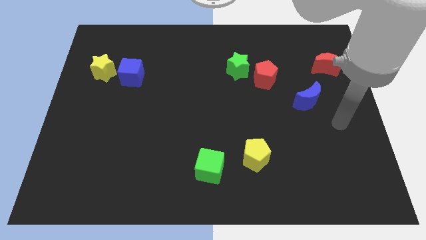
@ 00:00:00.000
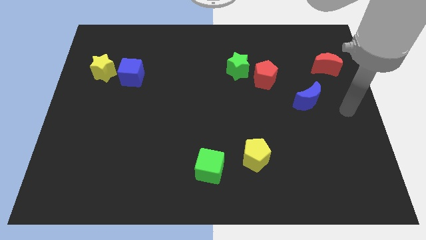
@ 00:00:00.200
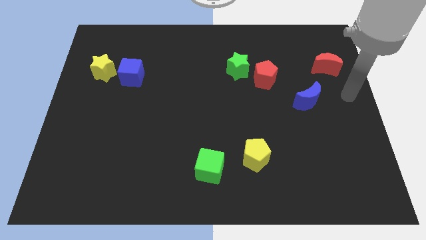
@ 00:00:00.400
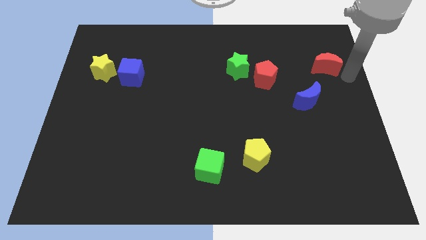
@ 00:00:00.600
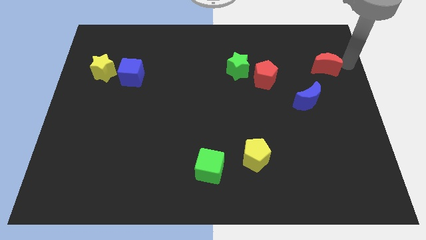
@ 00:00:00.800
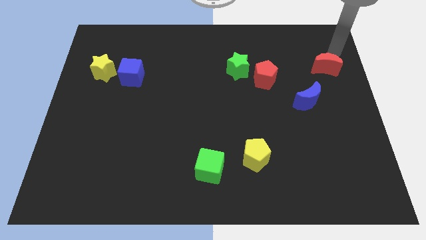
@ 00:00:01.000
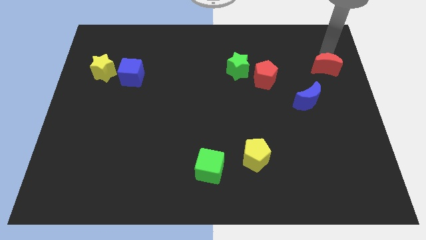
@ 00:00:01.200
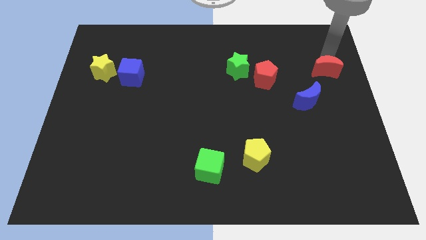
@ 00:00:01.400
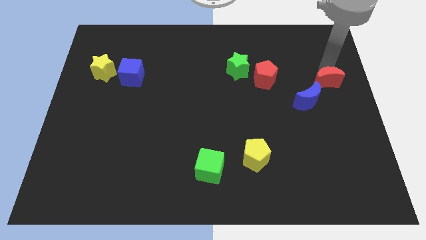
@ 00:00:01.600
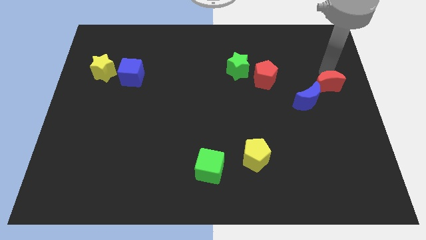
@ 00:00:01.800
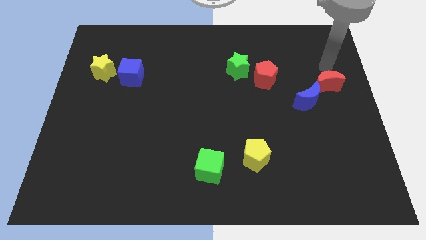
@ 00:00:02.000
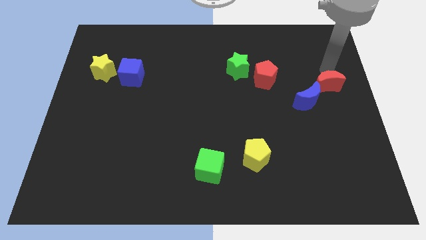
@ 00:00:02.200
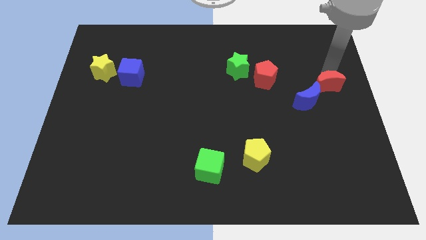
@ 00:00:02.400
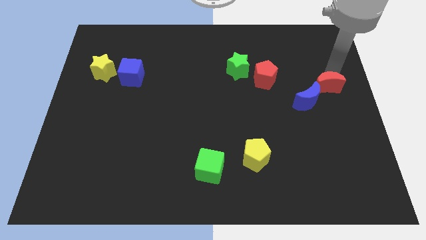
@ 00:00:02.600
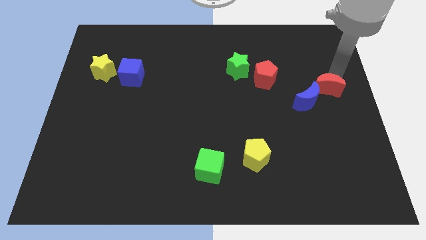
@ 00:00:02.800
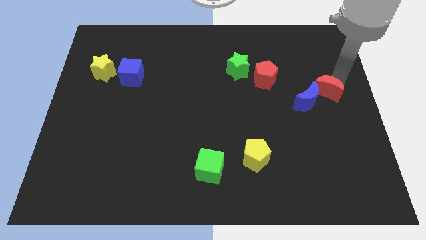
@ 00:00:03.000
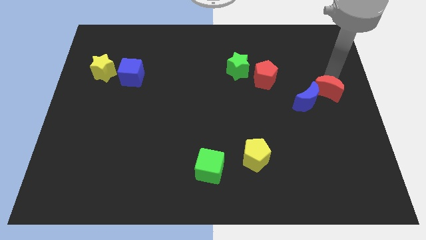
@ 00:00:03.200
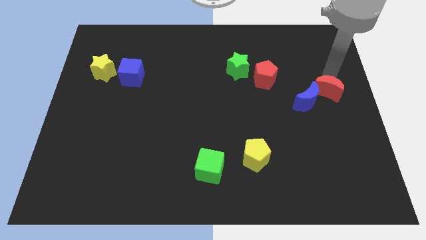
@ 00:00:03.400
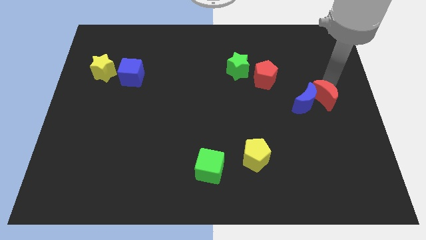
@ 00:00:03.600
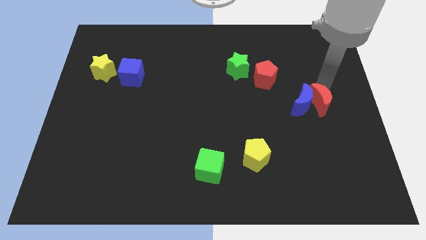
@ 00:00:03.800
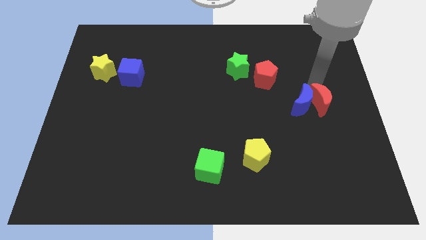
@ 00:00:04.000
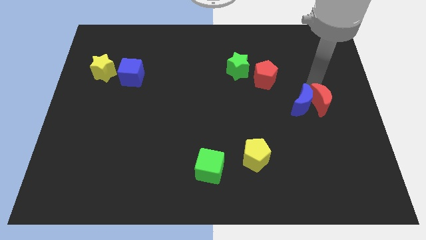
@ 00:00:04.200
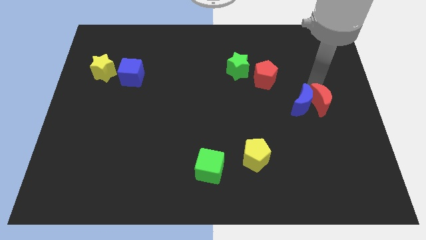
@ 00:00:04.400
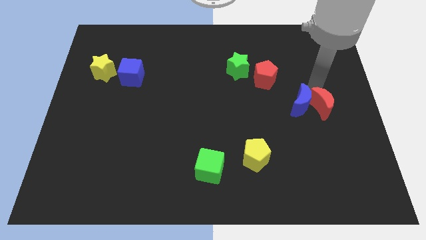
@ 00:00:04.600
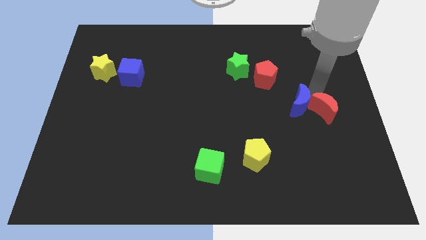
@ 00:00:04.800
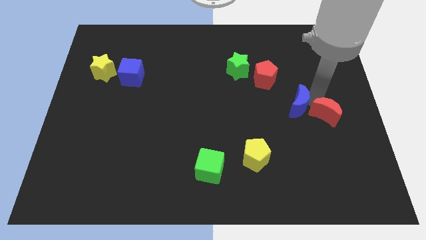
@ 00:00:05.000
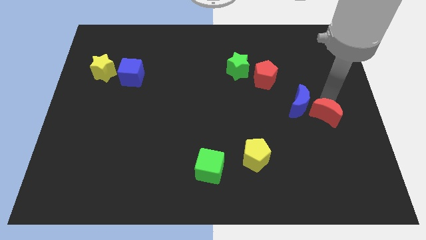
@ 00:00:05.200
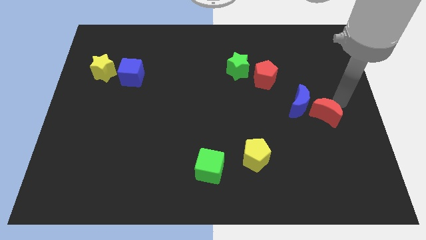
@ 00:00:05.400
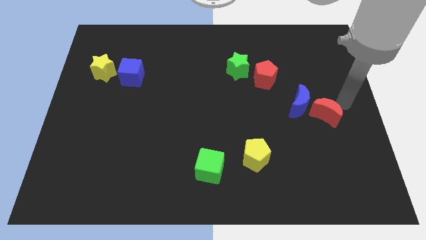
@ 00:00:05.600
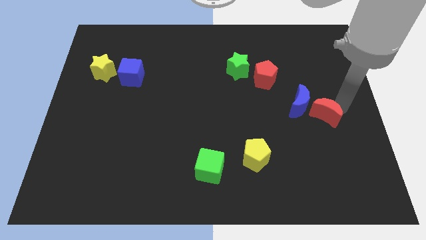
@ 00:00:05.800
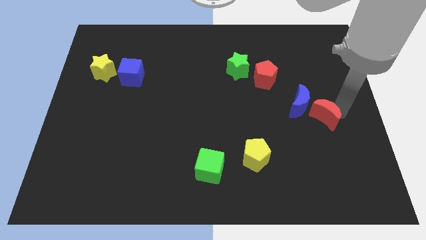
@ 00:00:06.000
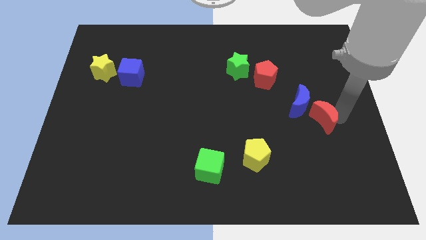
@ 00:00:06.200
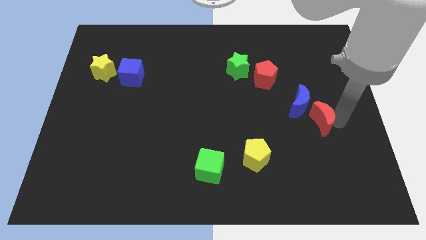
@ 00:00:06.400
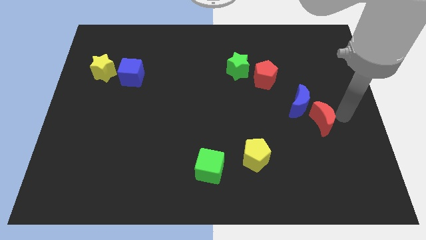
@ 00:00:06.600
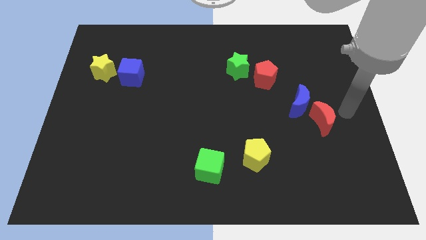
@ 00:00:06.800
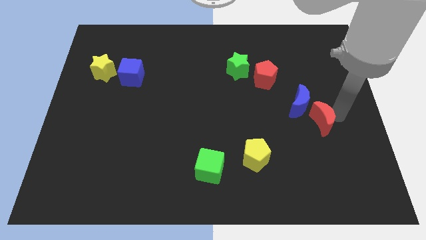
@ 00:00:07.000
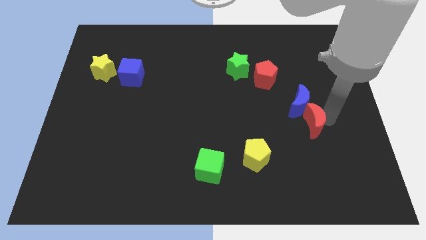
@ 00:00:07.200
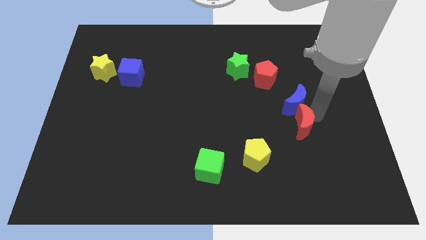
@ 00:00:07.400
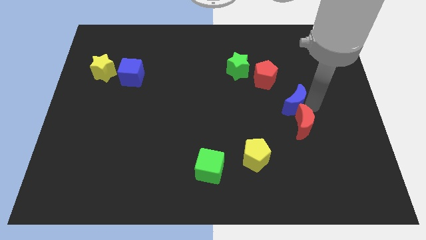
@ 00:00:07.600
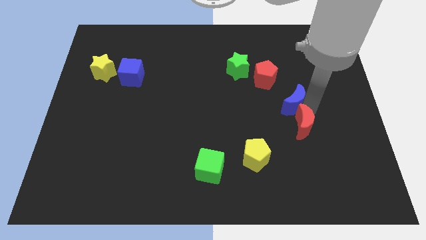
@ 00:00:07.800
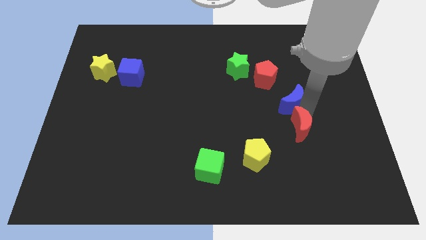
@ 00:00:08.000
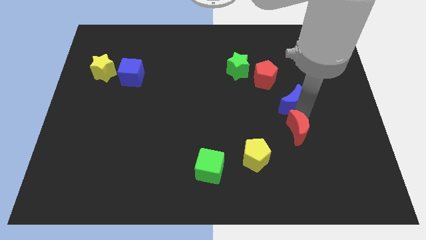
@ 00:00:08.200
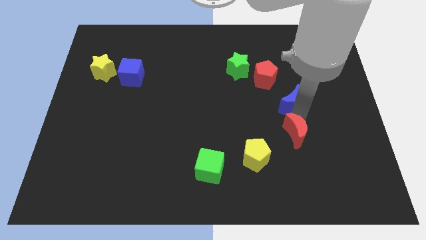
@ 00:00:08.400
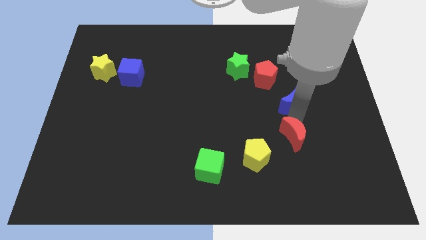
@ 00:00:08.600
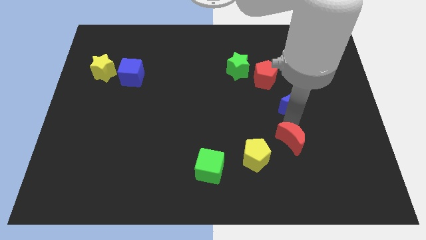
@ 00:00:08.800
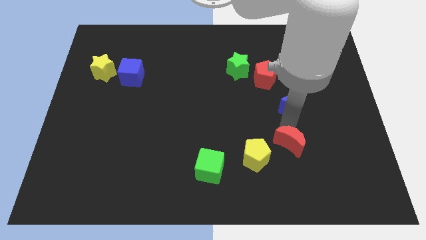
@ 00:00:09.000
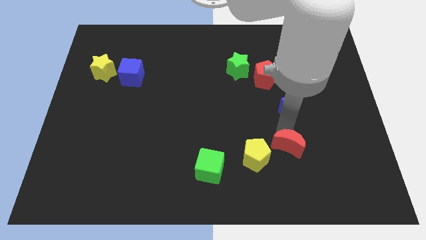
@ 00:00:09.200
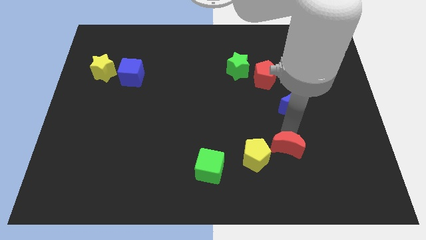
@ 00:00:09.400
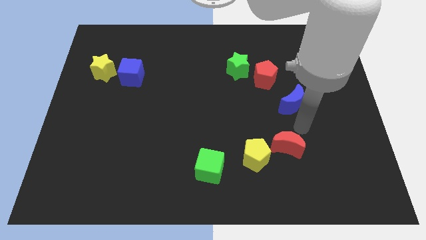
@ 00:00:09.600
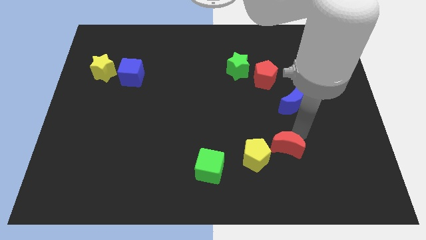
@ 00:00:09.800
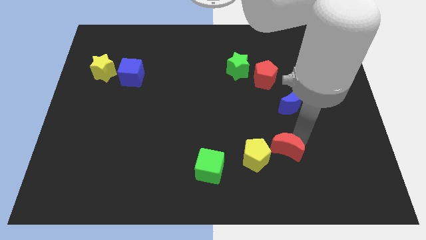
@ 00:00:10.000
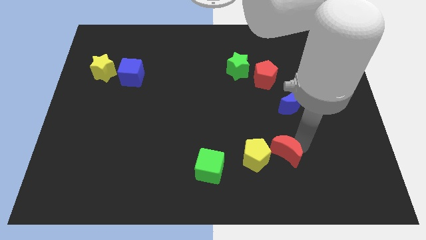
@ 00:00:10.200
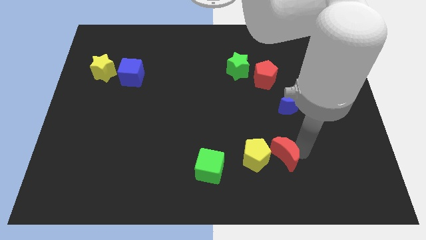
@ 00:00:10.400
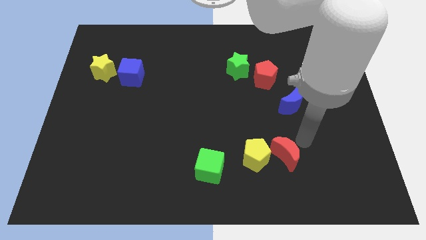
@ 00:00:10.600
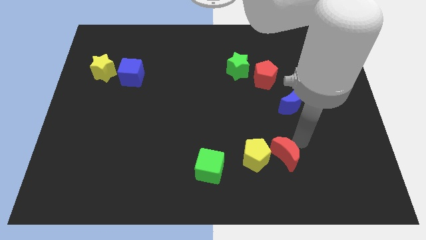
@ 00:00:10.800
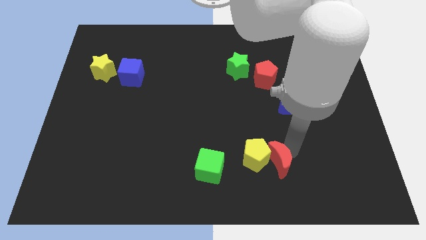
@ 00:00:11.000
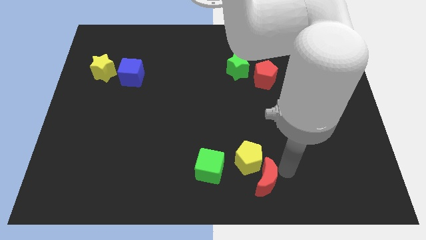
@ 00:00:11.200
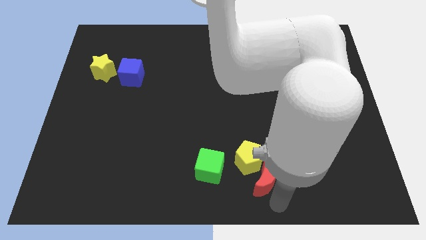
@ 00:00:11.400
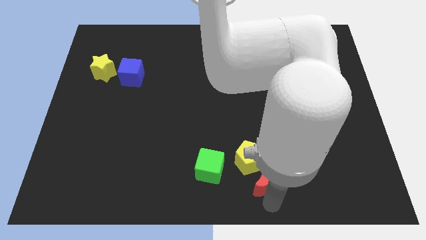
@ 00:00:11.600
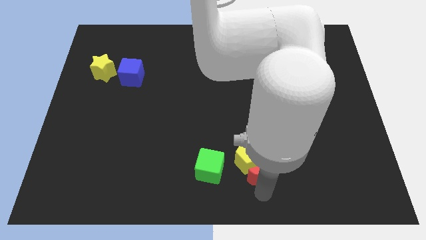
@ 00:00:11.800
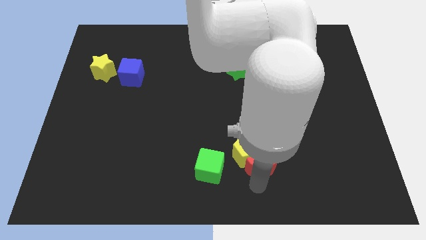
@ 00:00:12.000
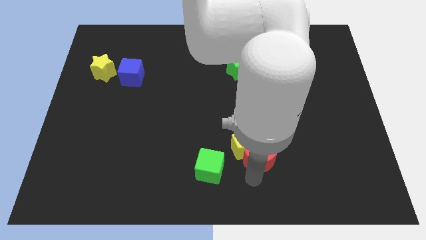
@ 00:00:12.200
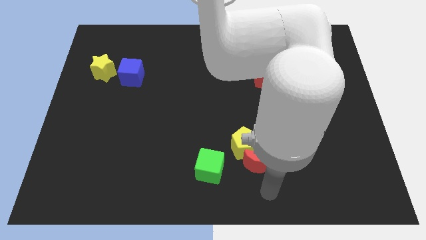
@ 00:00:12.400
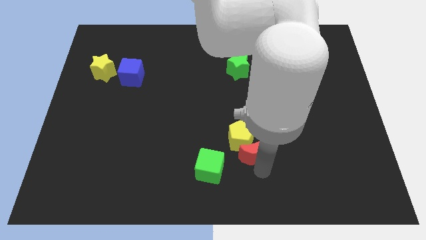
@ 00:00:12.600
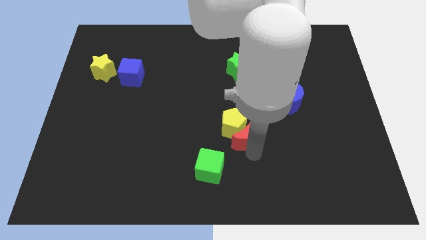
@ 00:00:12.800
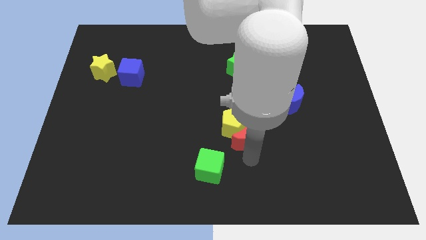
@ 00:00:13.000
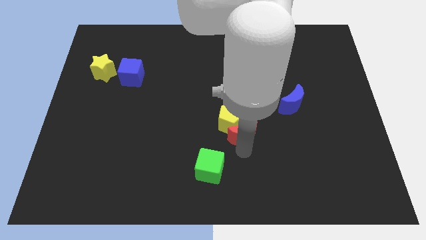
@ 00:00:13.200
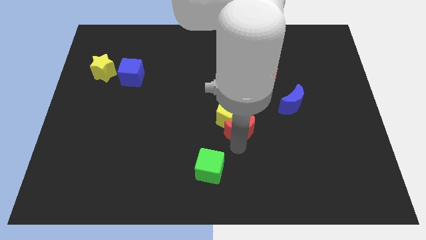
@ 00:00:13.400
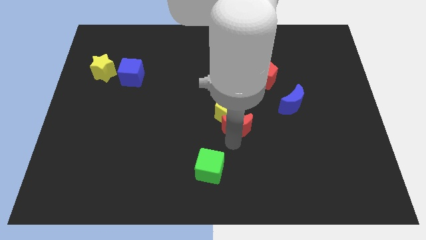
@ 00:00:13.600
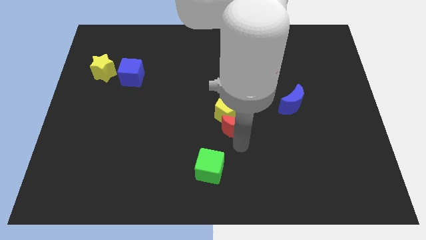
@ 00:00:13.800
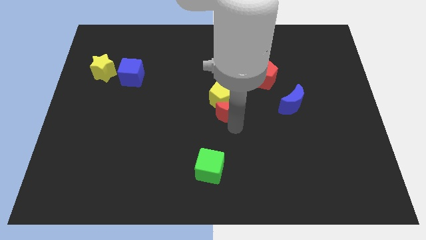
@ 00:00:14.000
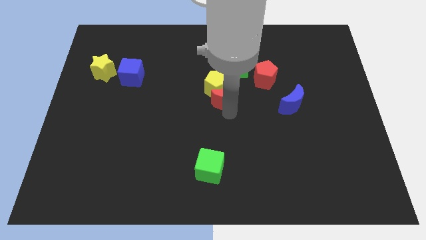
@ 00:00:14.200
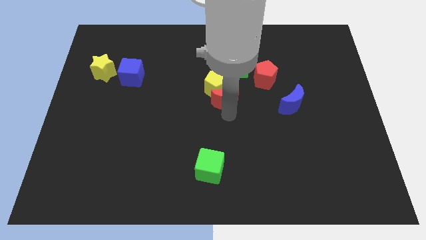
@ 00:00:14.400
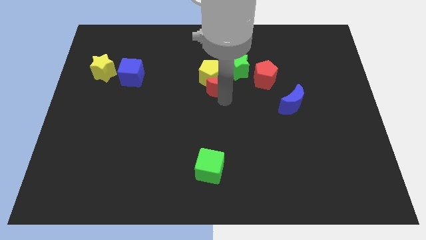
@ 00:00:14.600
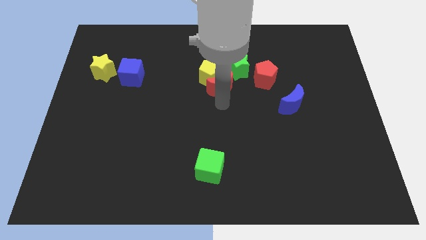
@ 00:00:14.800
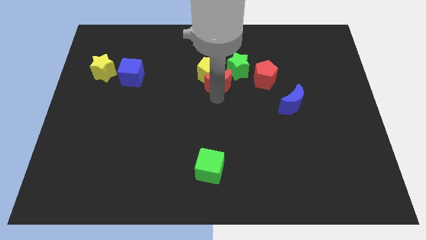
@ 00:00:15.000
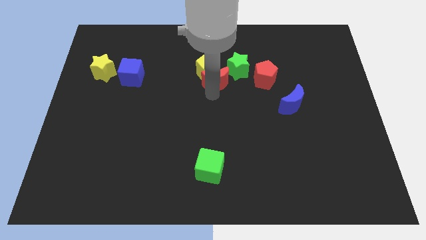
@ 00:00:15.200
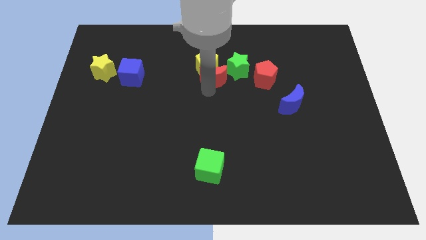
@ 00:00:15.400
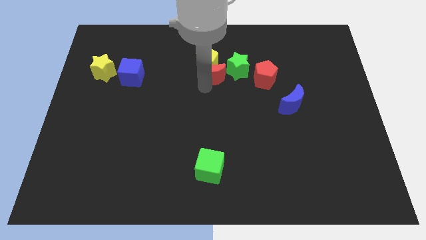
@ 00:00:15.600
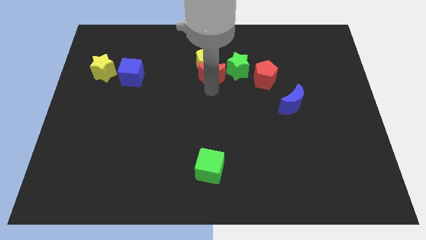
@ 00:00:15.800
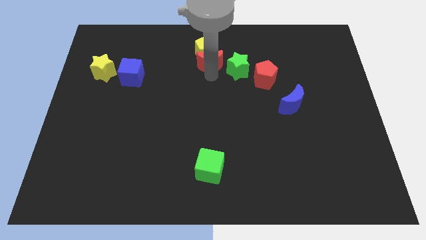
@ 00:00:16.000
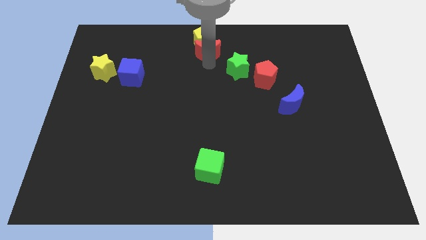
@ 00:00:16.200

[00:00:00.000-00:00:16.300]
slide the red moon to the top side
